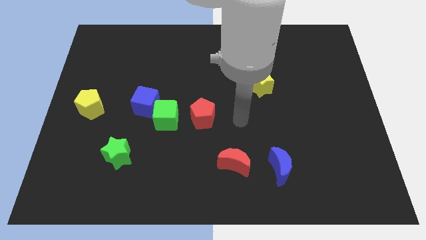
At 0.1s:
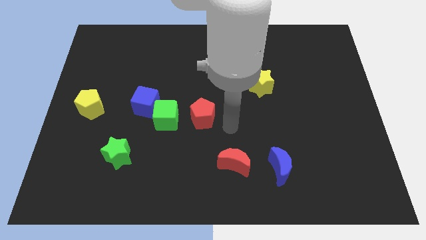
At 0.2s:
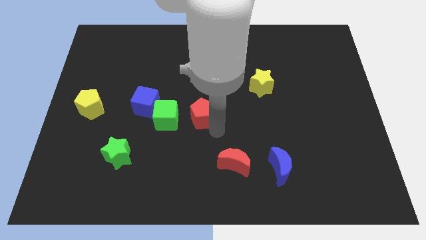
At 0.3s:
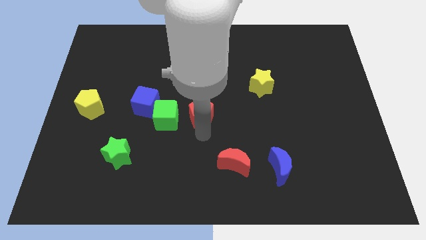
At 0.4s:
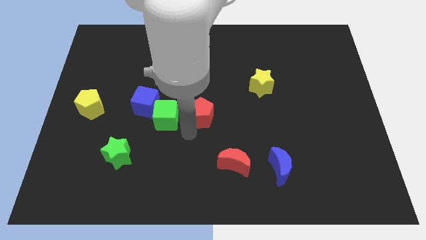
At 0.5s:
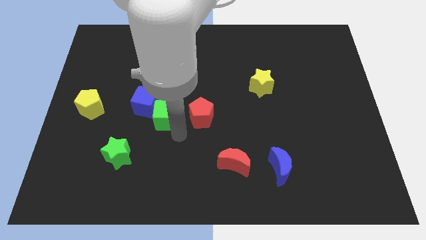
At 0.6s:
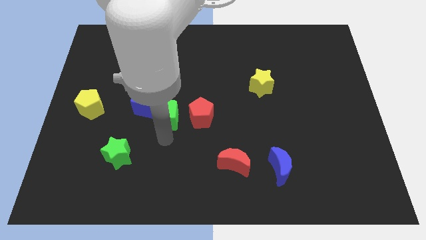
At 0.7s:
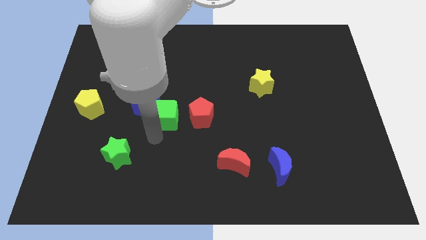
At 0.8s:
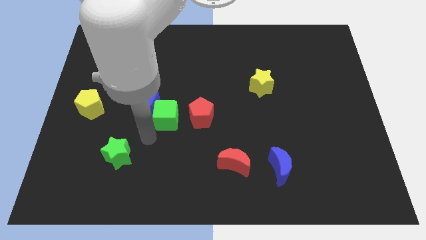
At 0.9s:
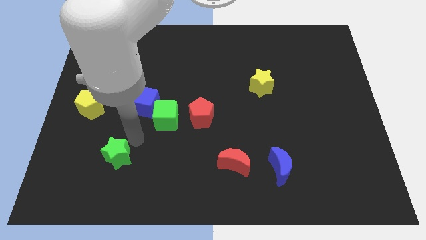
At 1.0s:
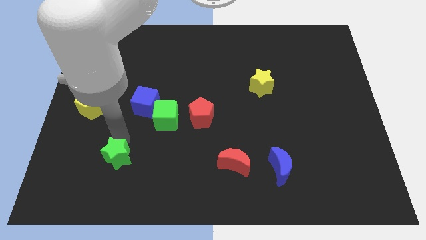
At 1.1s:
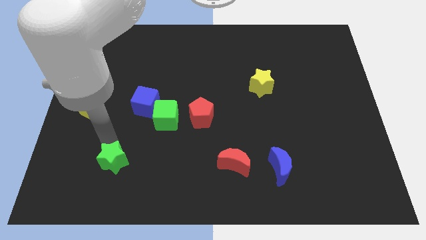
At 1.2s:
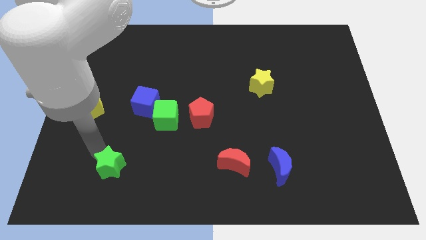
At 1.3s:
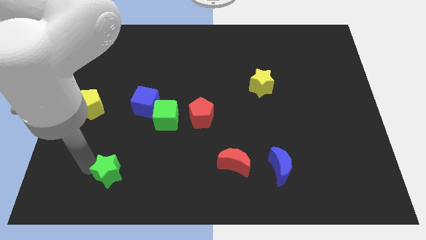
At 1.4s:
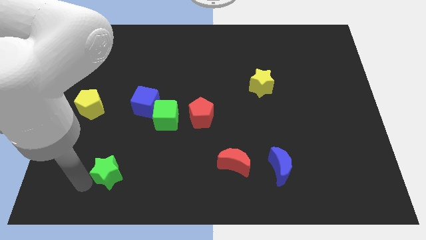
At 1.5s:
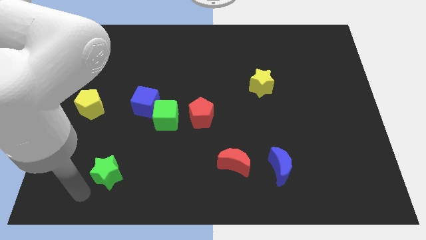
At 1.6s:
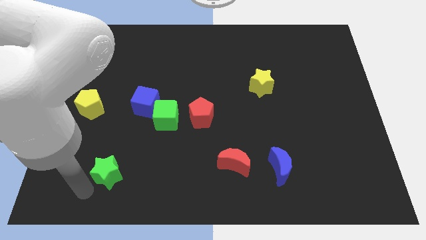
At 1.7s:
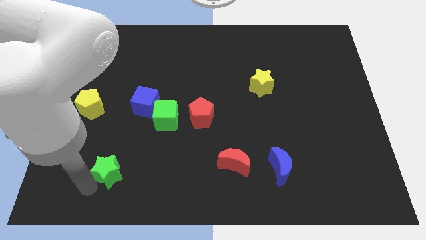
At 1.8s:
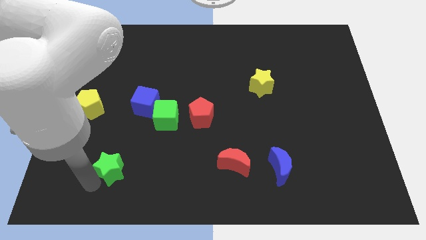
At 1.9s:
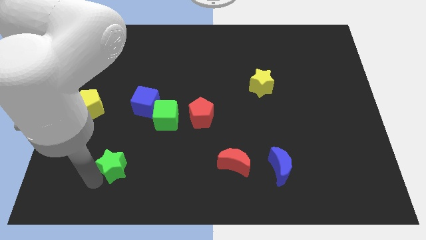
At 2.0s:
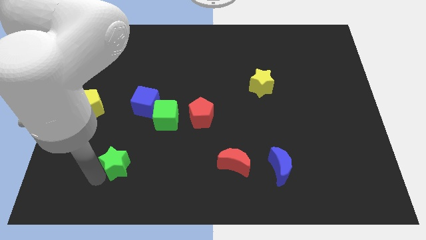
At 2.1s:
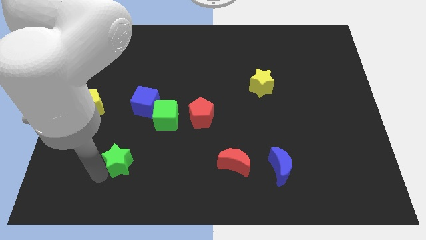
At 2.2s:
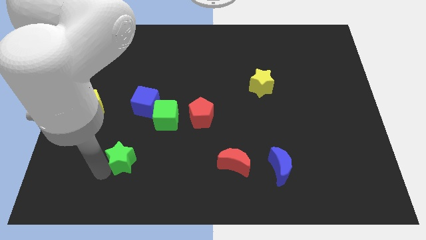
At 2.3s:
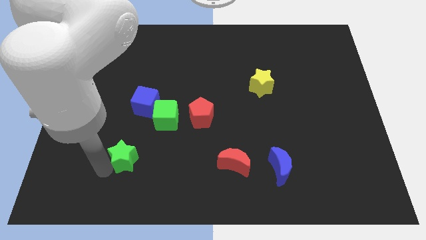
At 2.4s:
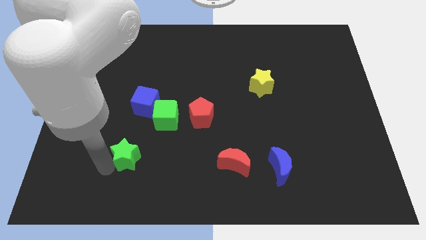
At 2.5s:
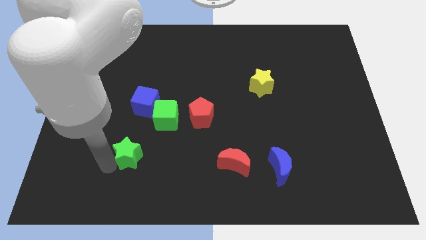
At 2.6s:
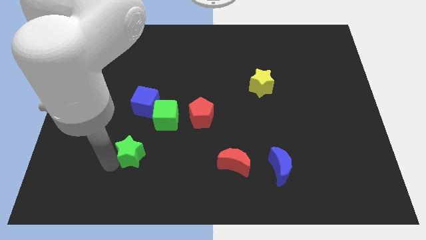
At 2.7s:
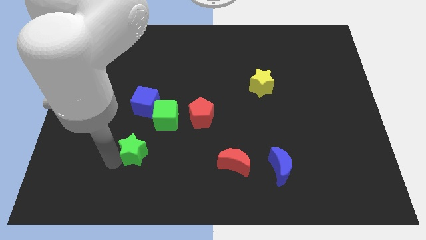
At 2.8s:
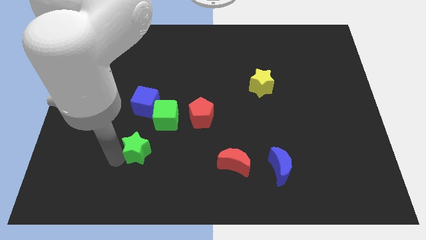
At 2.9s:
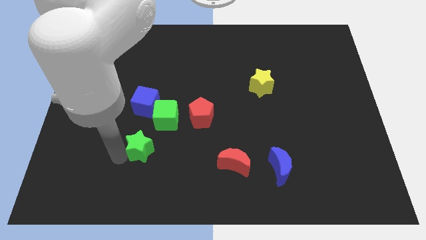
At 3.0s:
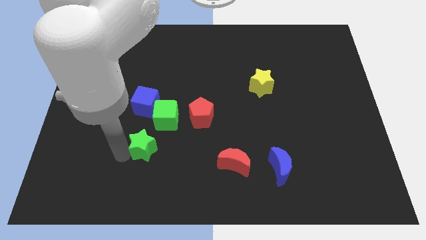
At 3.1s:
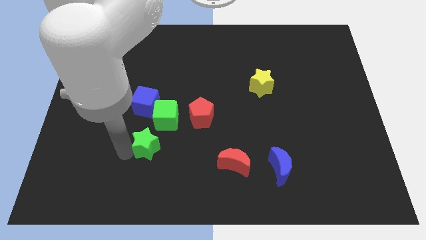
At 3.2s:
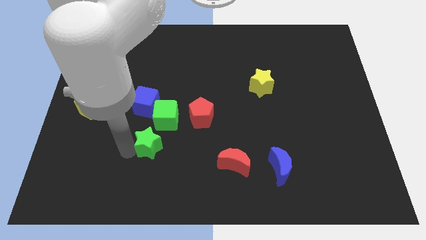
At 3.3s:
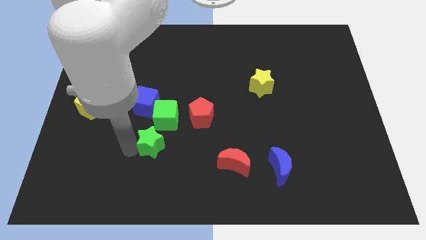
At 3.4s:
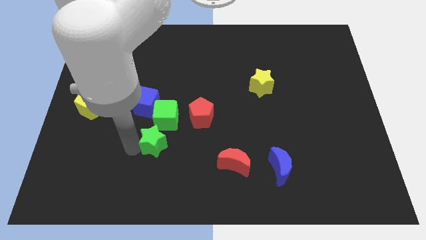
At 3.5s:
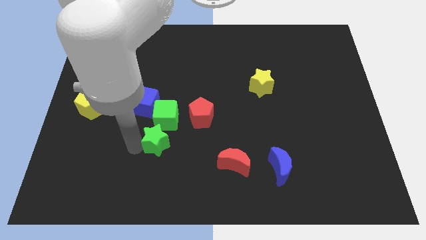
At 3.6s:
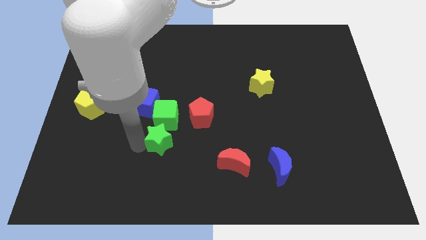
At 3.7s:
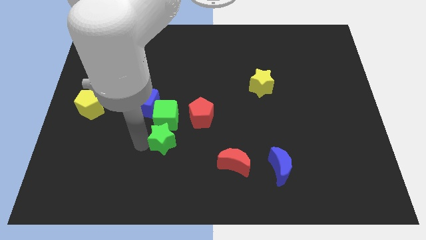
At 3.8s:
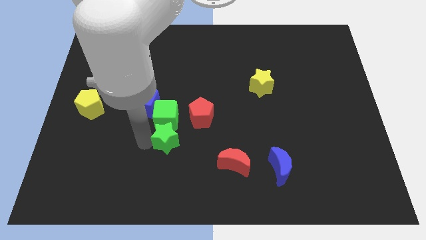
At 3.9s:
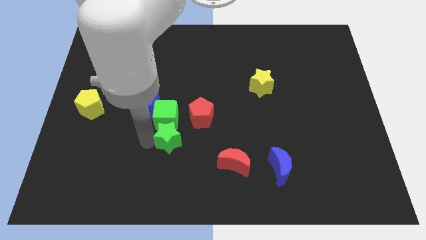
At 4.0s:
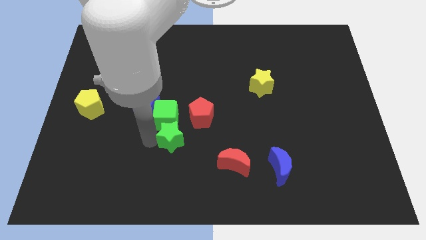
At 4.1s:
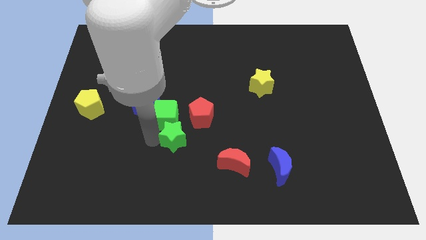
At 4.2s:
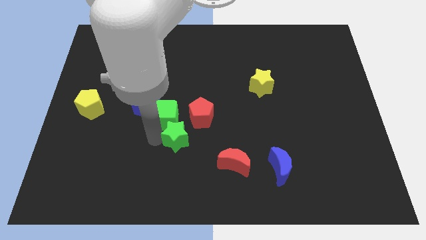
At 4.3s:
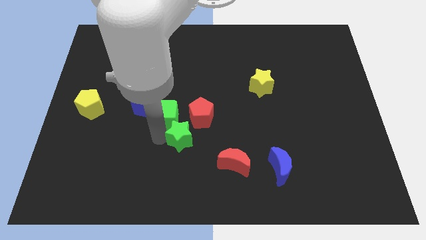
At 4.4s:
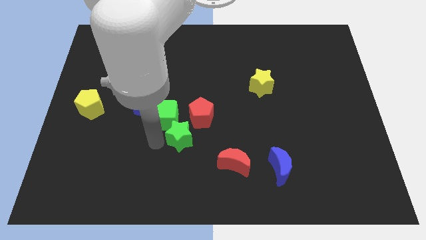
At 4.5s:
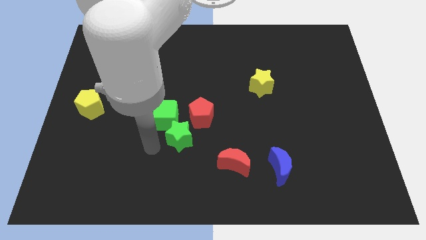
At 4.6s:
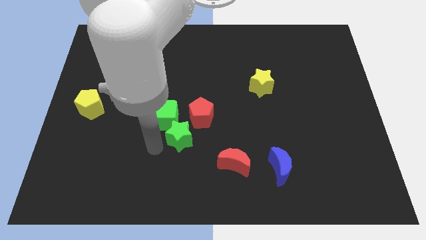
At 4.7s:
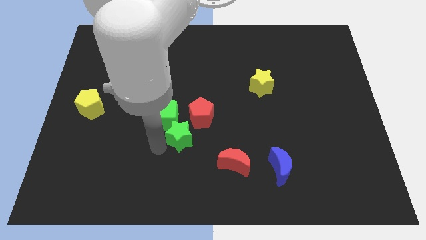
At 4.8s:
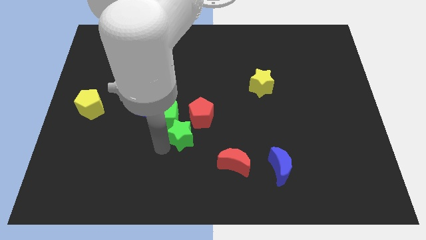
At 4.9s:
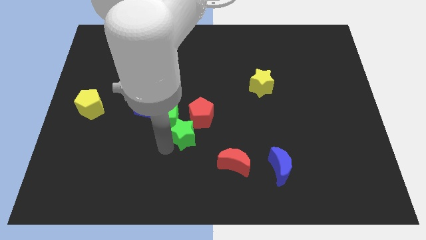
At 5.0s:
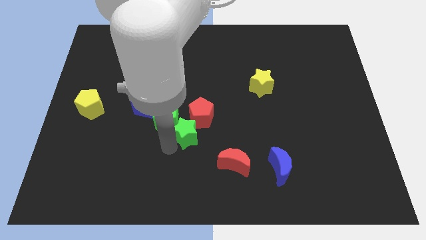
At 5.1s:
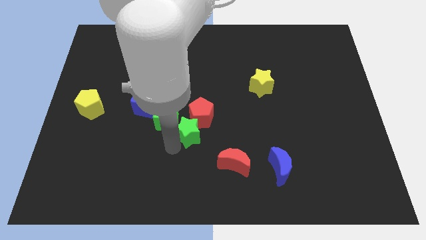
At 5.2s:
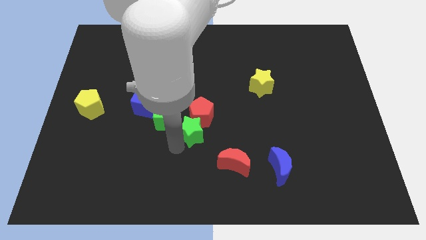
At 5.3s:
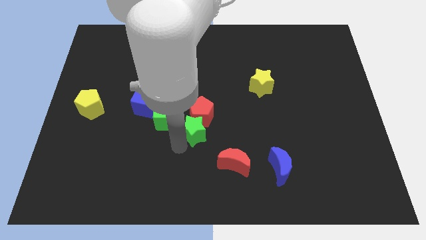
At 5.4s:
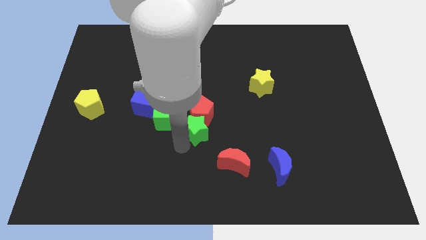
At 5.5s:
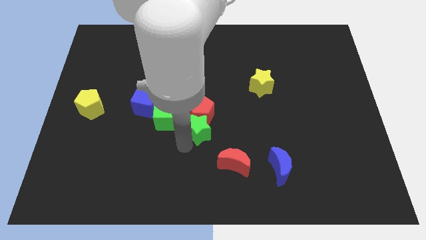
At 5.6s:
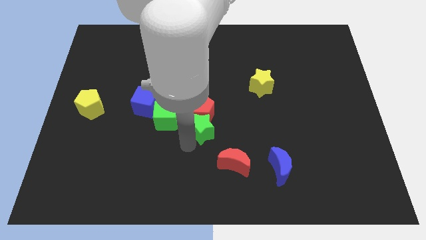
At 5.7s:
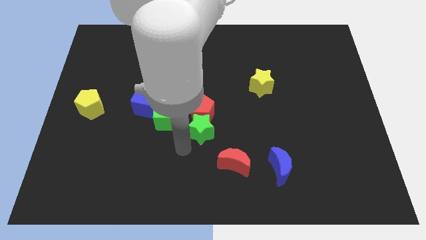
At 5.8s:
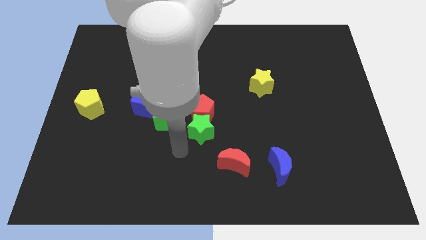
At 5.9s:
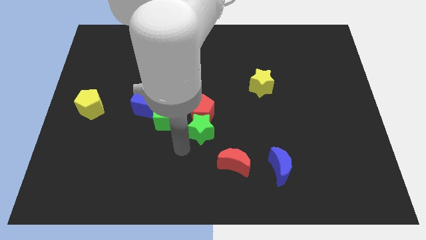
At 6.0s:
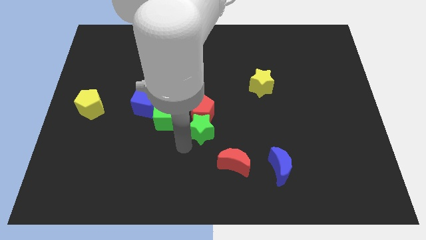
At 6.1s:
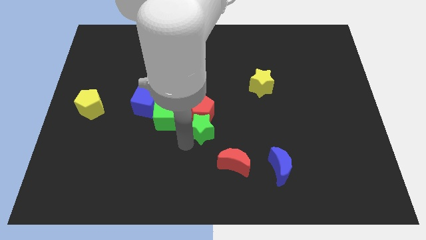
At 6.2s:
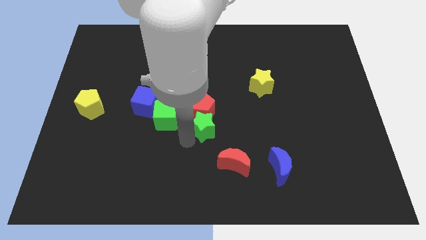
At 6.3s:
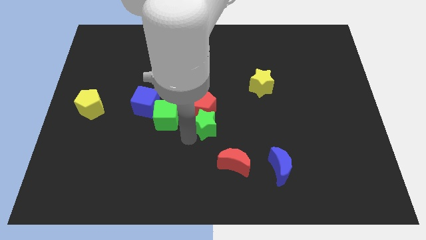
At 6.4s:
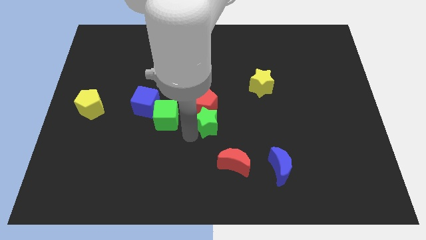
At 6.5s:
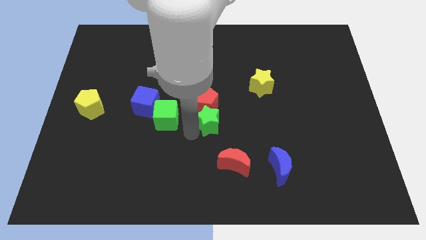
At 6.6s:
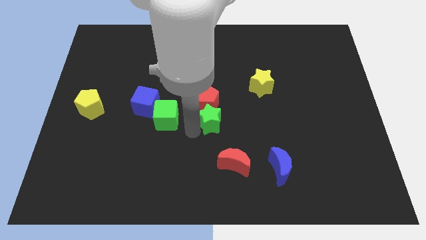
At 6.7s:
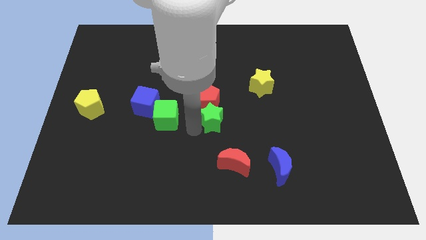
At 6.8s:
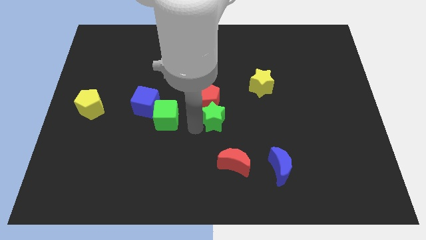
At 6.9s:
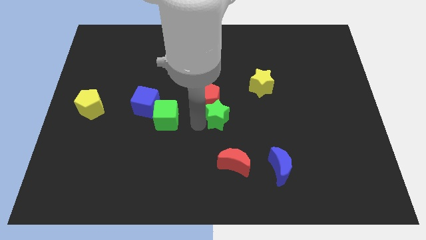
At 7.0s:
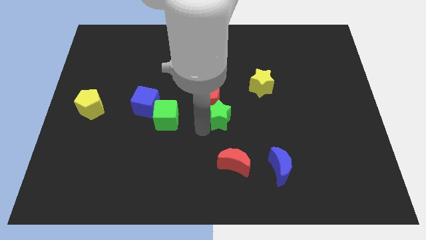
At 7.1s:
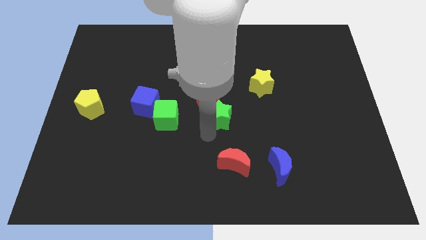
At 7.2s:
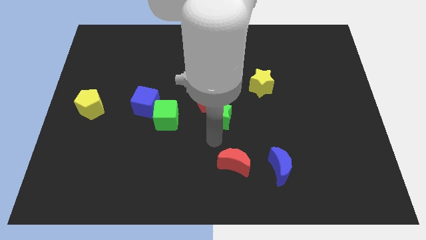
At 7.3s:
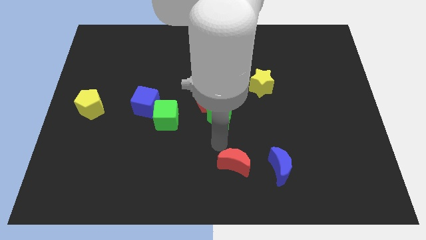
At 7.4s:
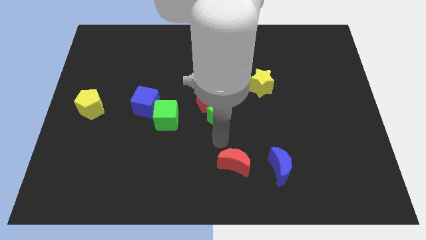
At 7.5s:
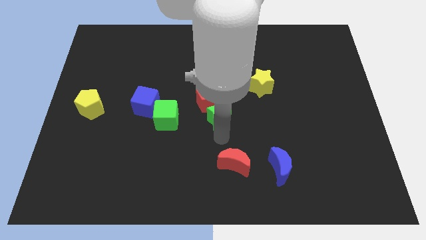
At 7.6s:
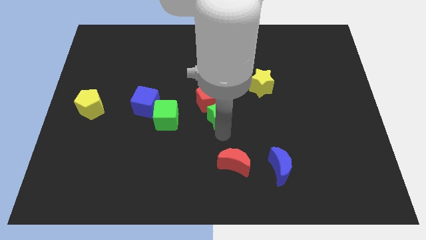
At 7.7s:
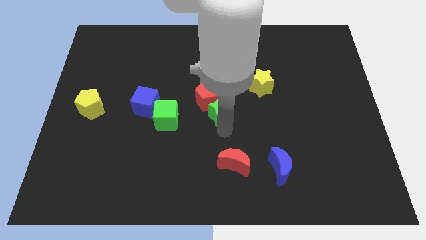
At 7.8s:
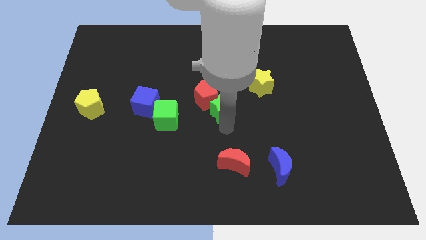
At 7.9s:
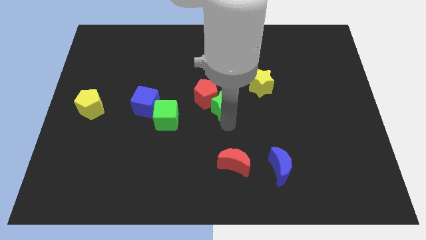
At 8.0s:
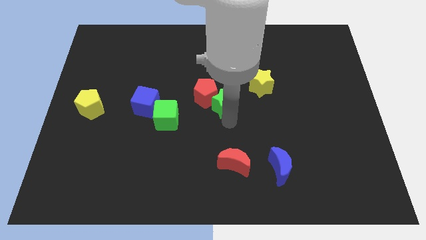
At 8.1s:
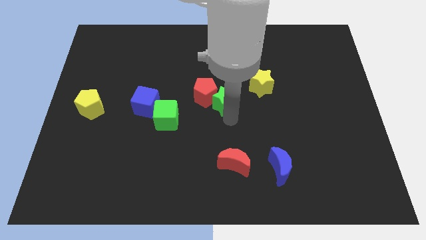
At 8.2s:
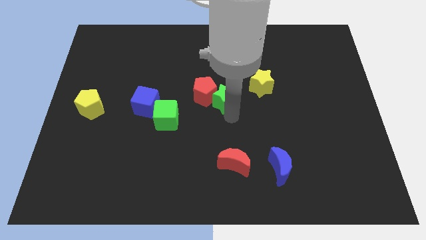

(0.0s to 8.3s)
put the green star left of the yellow star
